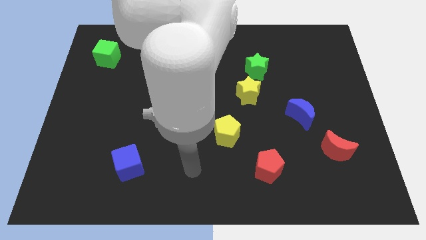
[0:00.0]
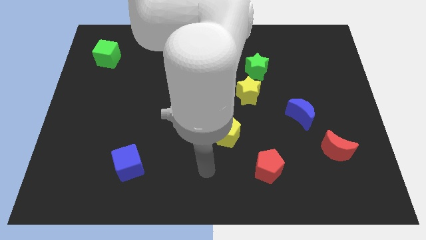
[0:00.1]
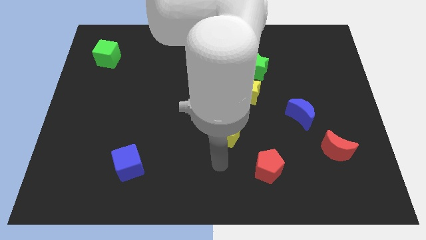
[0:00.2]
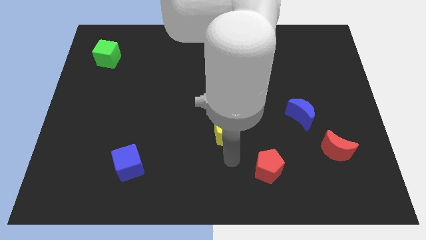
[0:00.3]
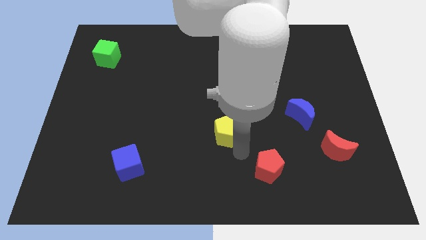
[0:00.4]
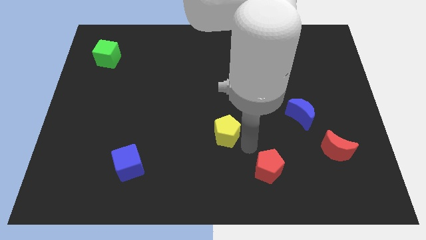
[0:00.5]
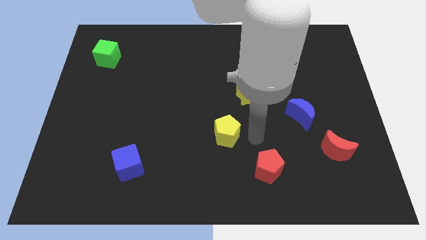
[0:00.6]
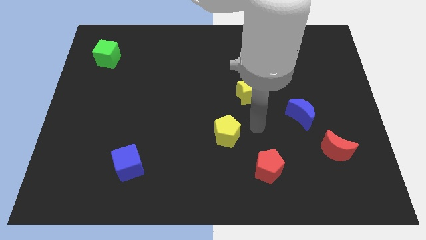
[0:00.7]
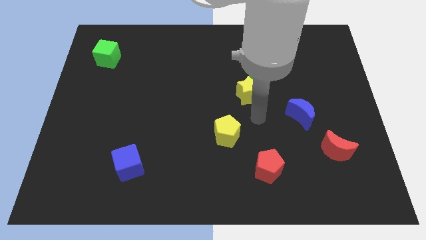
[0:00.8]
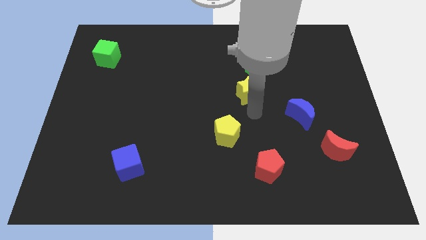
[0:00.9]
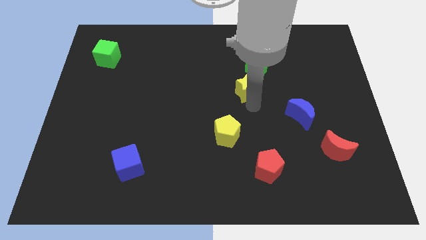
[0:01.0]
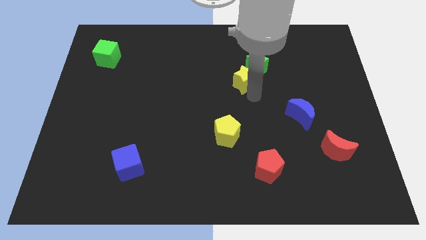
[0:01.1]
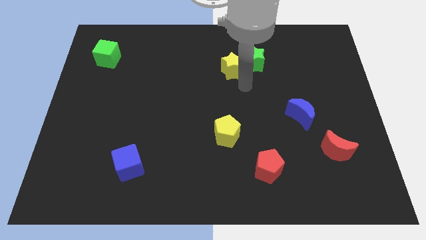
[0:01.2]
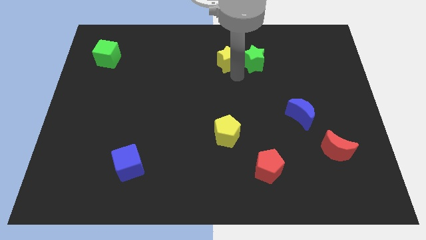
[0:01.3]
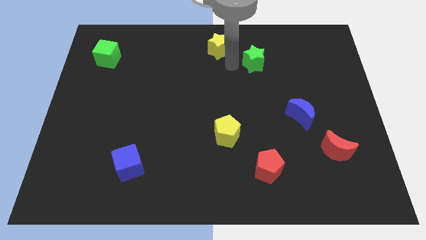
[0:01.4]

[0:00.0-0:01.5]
move the green star away from the yellow star

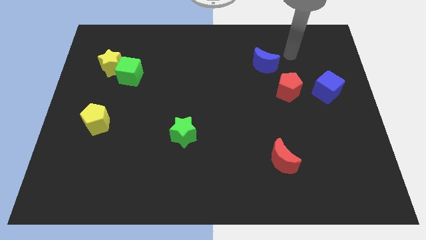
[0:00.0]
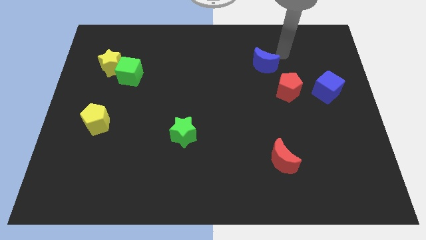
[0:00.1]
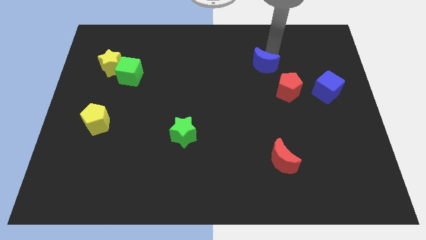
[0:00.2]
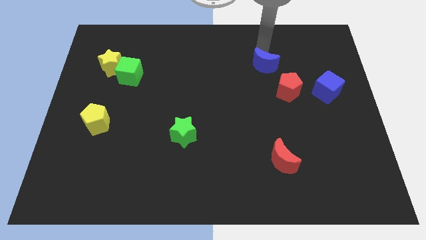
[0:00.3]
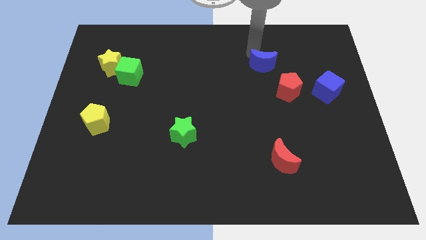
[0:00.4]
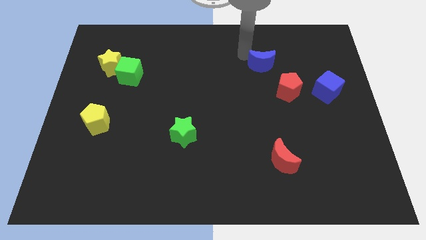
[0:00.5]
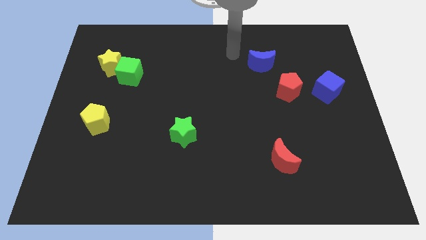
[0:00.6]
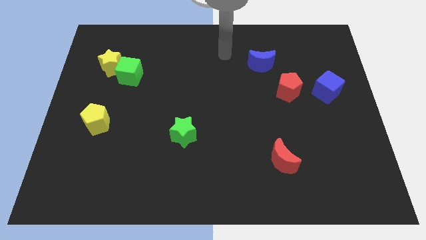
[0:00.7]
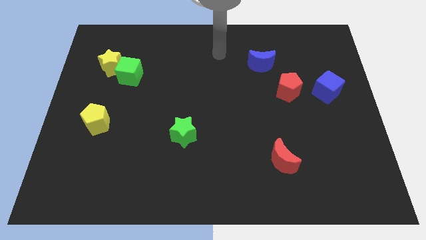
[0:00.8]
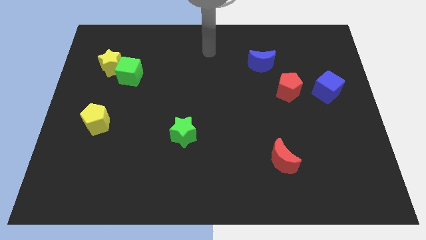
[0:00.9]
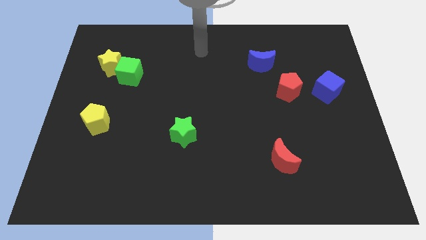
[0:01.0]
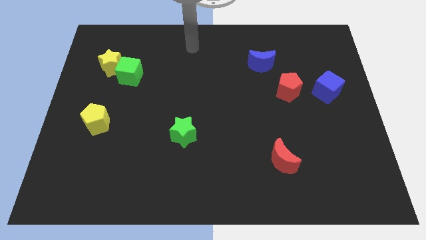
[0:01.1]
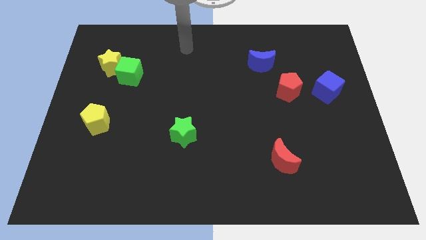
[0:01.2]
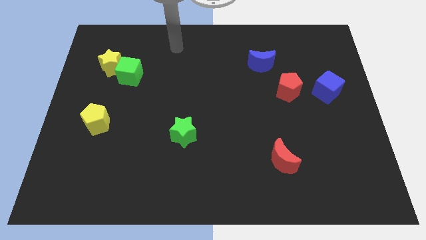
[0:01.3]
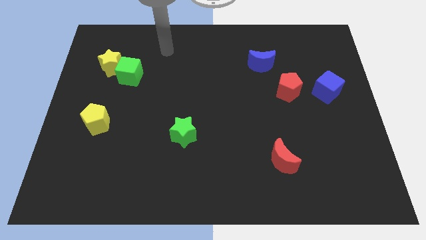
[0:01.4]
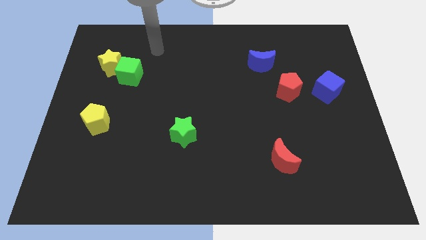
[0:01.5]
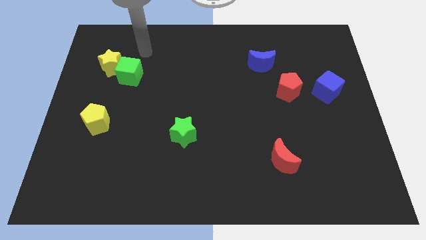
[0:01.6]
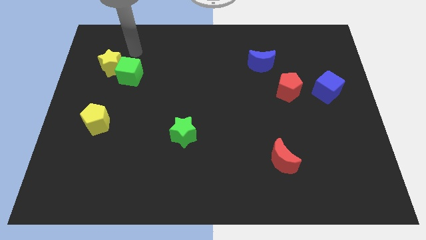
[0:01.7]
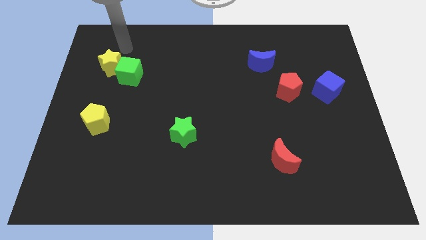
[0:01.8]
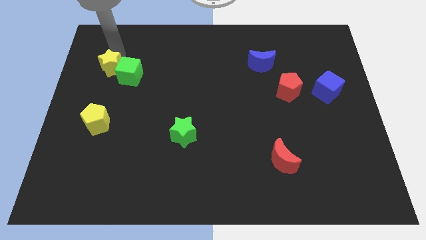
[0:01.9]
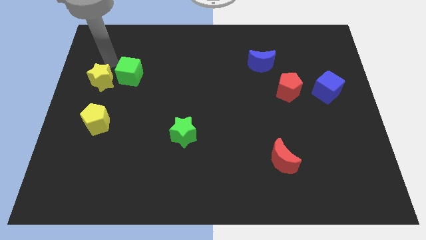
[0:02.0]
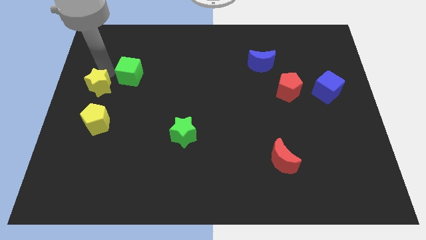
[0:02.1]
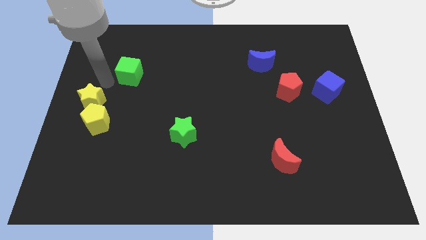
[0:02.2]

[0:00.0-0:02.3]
move the green cube away from the yellow star

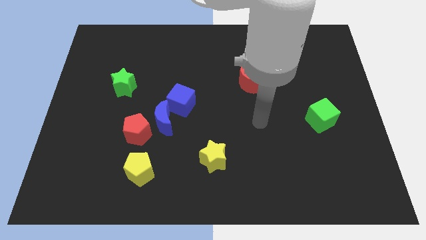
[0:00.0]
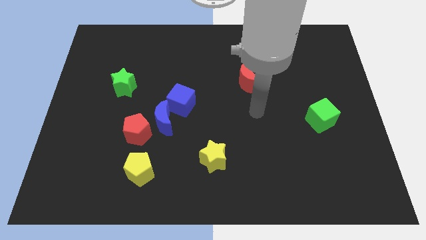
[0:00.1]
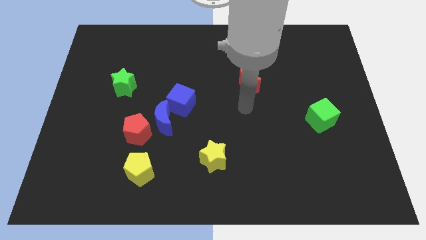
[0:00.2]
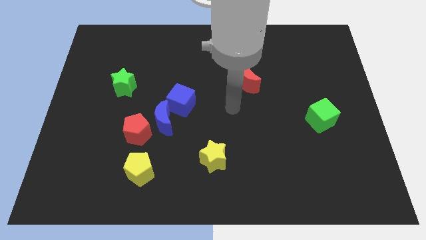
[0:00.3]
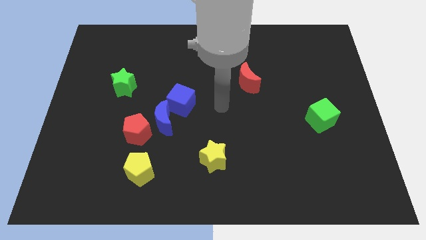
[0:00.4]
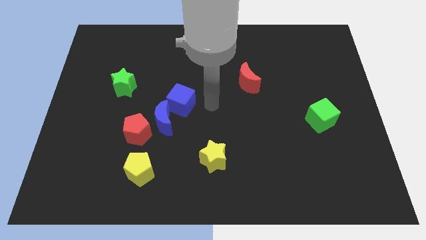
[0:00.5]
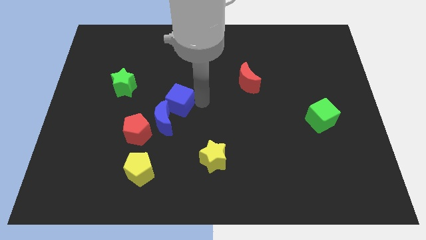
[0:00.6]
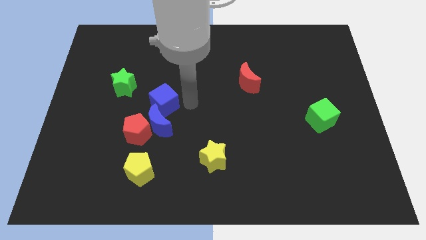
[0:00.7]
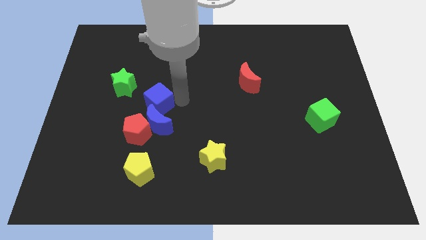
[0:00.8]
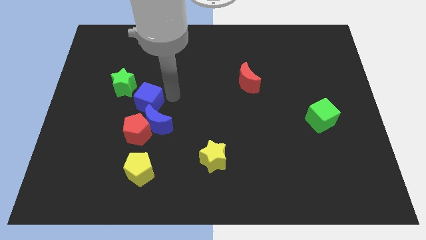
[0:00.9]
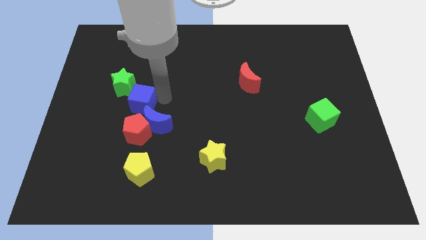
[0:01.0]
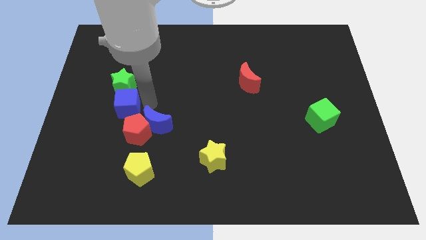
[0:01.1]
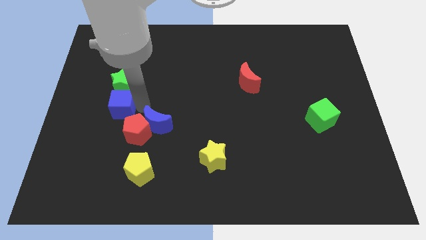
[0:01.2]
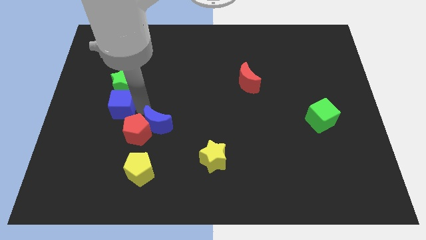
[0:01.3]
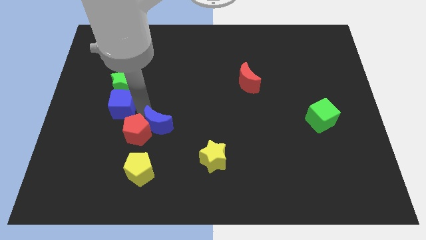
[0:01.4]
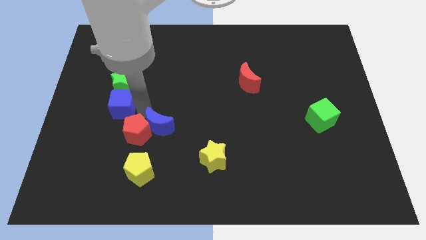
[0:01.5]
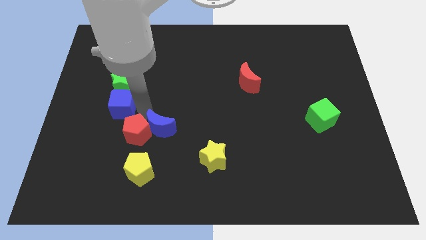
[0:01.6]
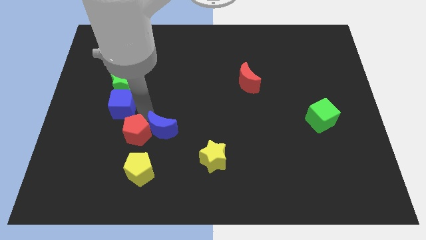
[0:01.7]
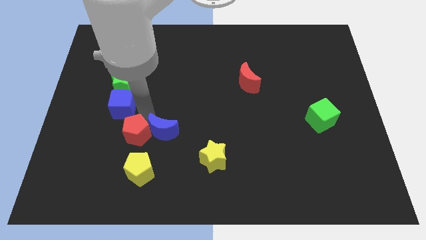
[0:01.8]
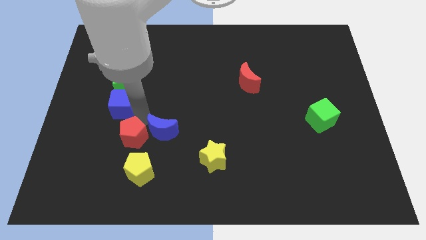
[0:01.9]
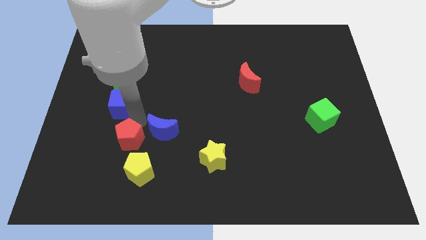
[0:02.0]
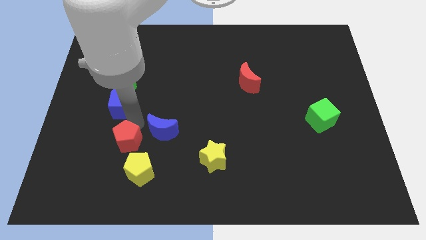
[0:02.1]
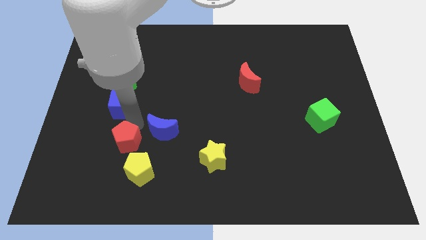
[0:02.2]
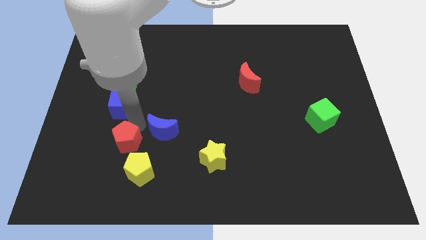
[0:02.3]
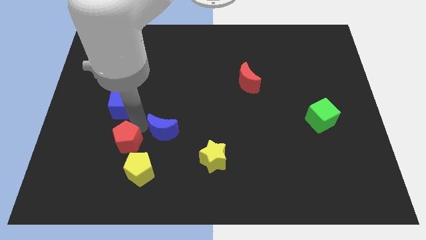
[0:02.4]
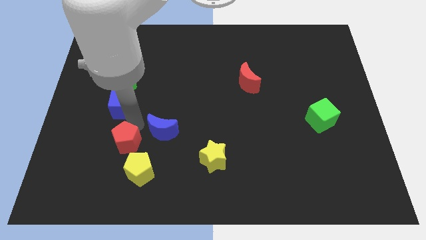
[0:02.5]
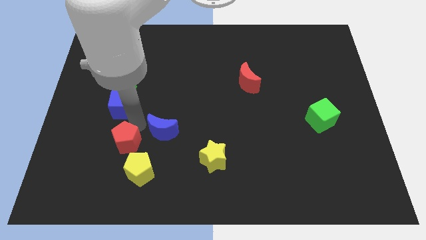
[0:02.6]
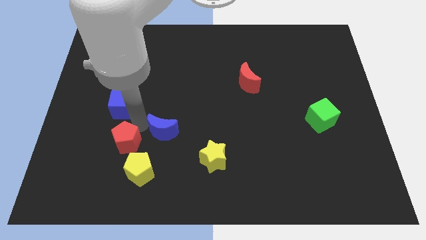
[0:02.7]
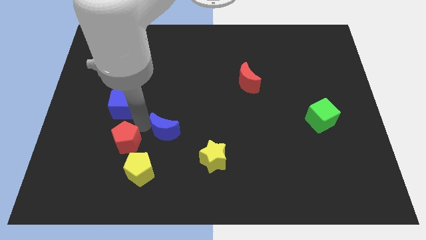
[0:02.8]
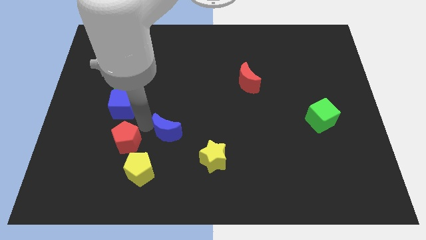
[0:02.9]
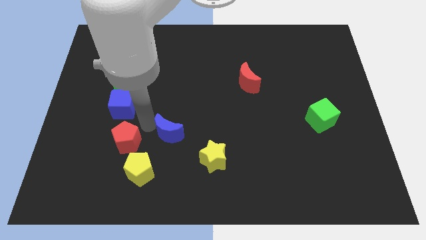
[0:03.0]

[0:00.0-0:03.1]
separate the blue moon from the red pentagon and blue cube

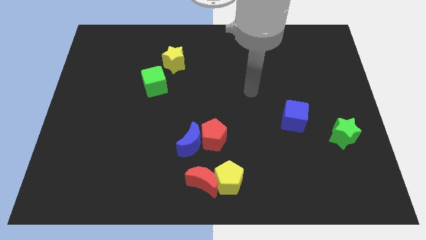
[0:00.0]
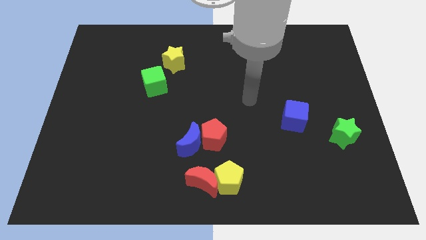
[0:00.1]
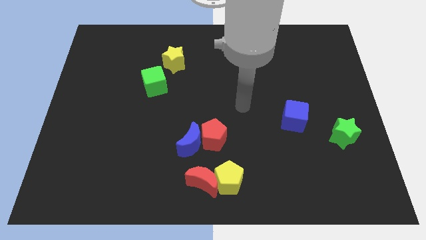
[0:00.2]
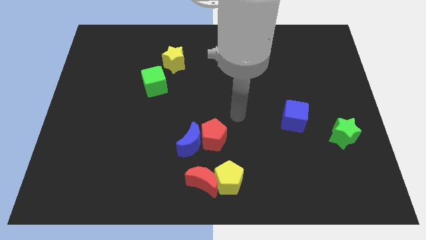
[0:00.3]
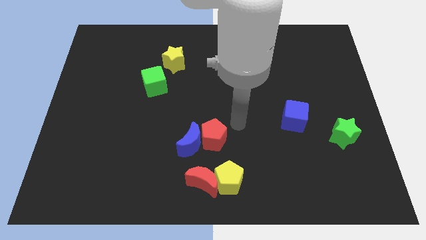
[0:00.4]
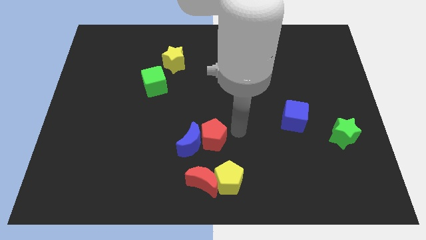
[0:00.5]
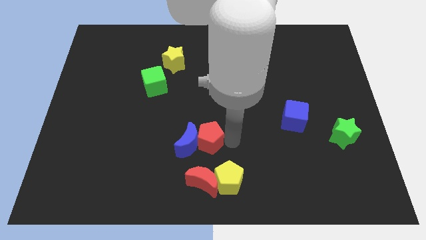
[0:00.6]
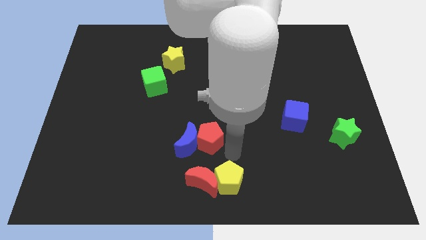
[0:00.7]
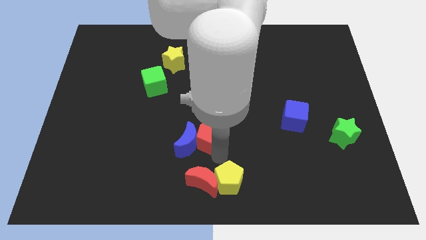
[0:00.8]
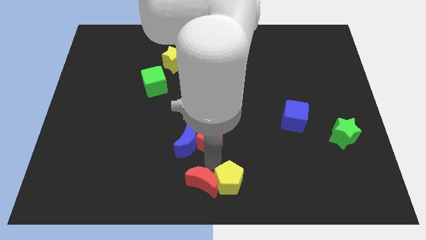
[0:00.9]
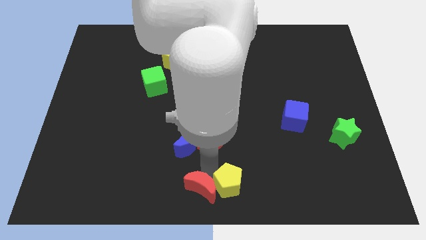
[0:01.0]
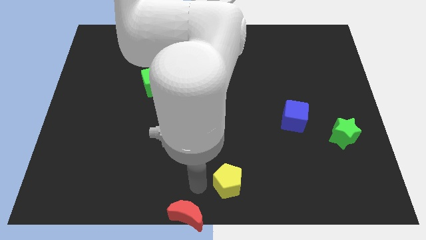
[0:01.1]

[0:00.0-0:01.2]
move the yellow pentagon away from the red moon

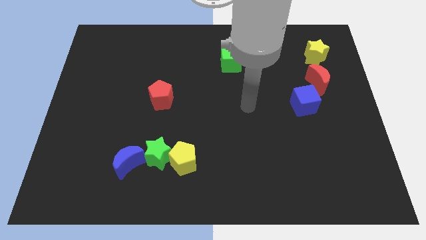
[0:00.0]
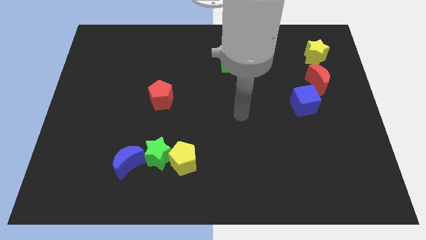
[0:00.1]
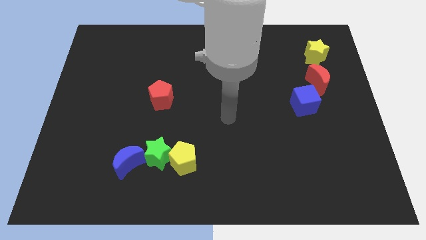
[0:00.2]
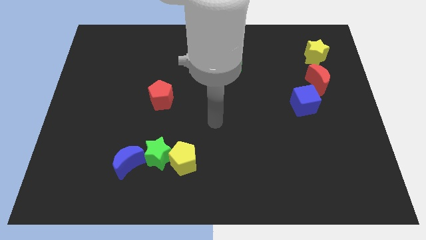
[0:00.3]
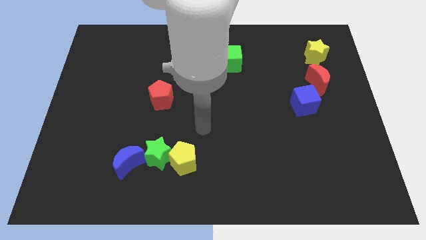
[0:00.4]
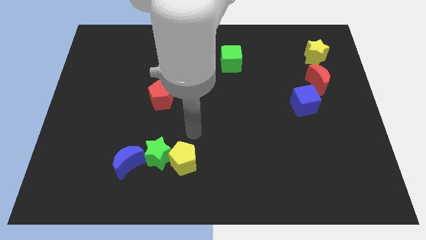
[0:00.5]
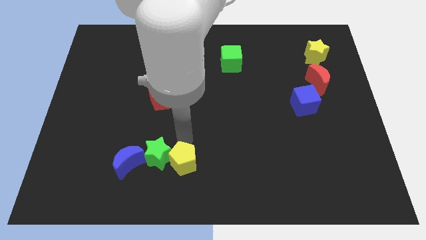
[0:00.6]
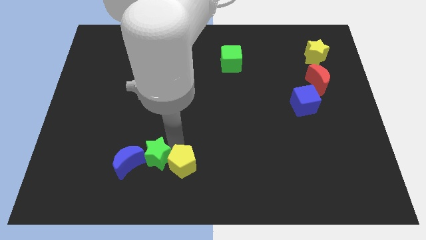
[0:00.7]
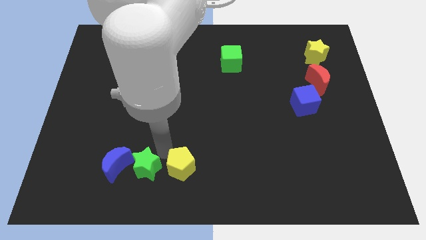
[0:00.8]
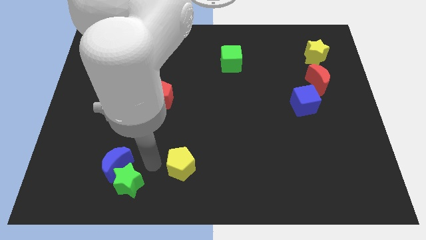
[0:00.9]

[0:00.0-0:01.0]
separate the yellow pentagon from the green star

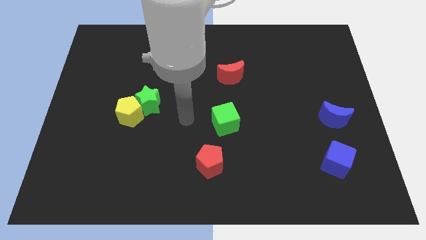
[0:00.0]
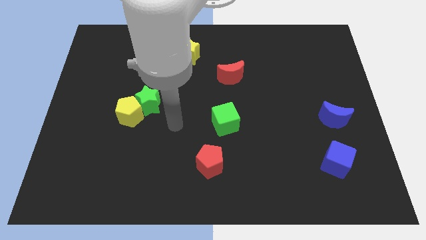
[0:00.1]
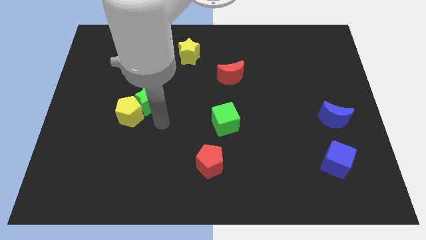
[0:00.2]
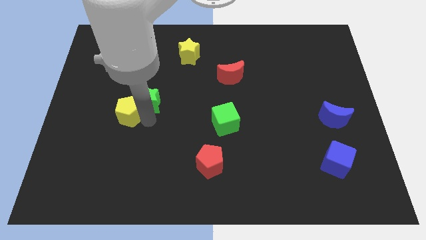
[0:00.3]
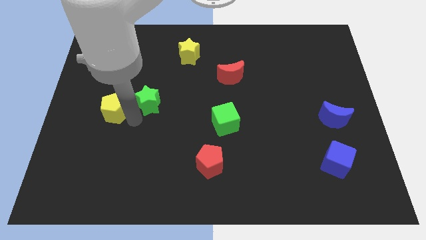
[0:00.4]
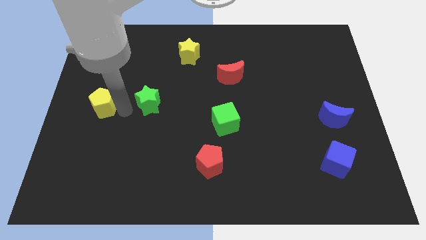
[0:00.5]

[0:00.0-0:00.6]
separate the green star from the yellow pentagon
